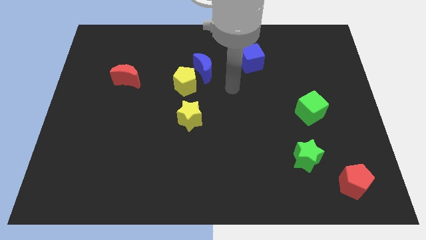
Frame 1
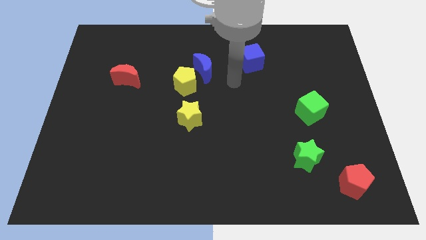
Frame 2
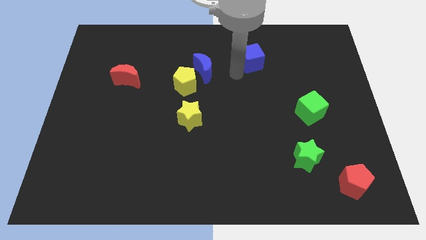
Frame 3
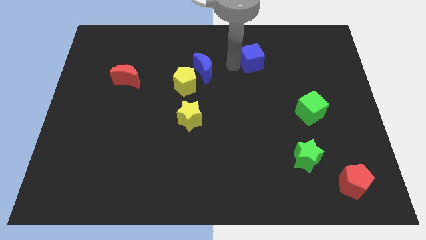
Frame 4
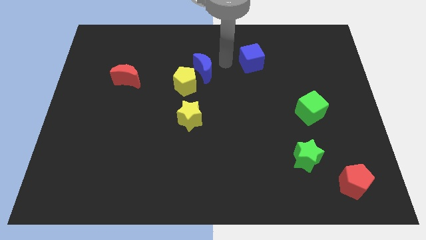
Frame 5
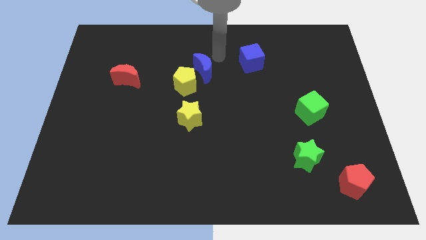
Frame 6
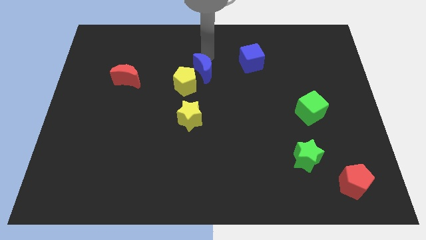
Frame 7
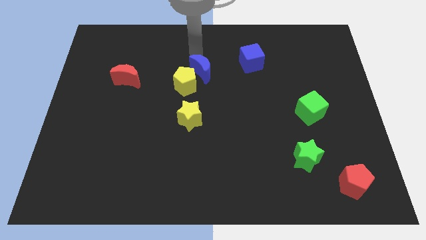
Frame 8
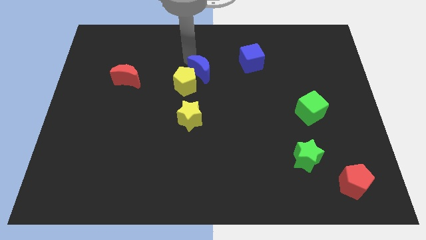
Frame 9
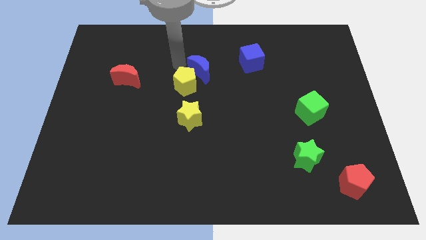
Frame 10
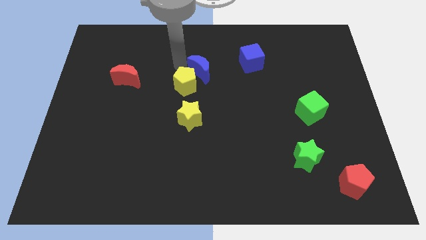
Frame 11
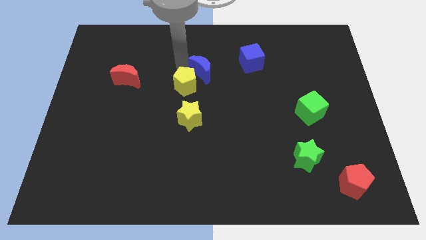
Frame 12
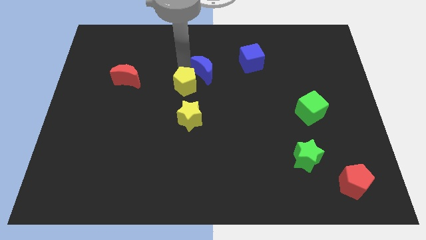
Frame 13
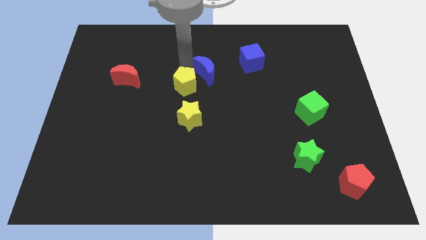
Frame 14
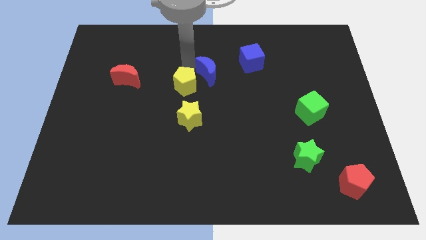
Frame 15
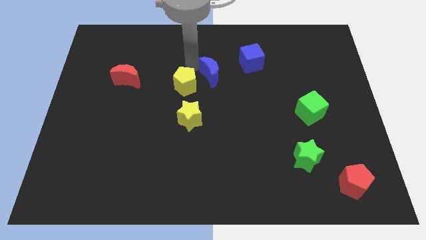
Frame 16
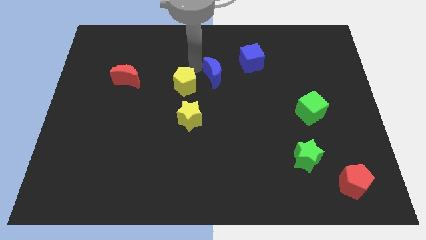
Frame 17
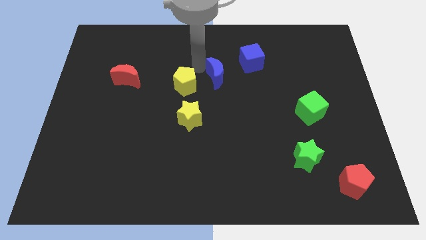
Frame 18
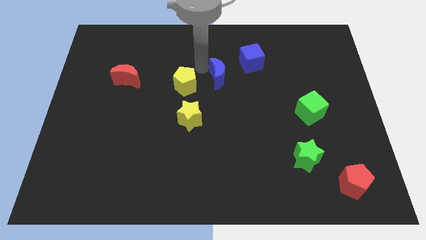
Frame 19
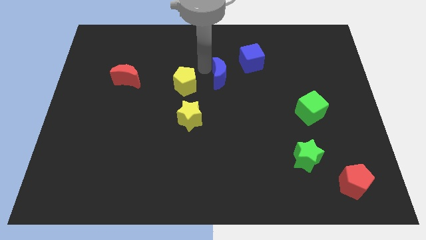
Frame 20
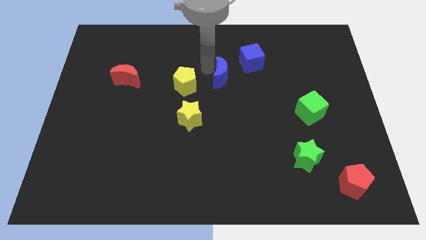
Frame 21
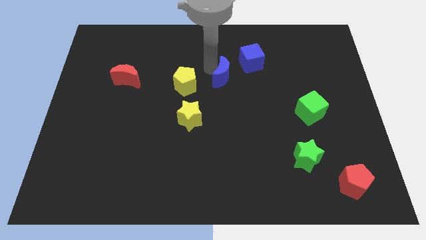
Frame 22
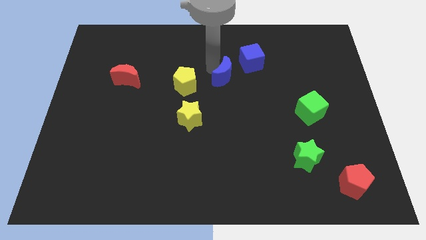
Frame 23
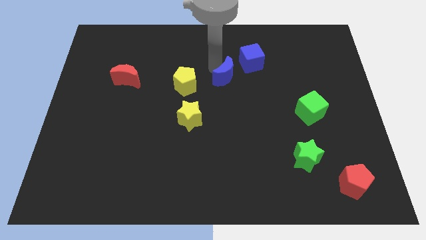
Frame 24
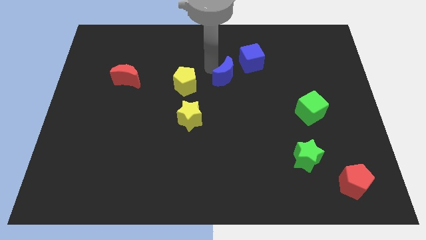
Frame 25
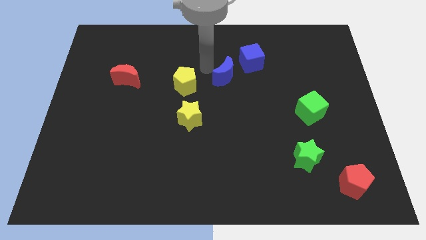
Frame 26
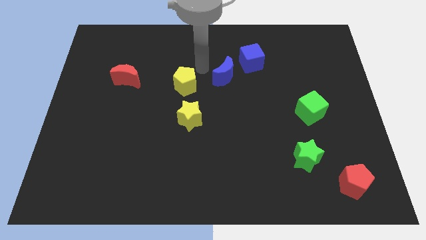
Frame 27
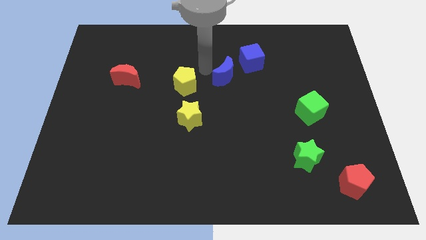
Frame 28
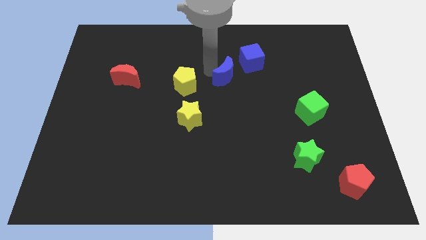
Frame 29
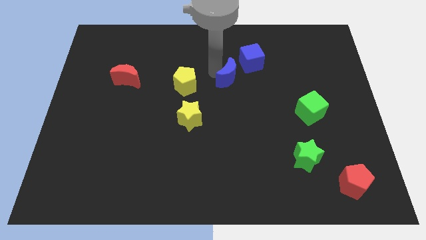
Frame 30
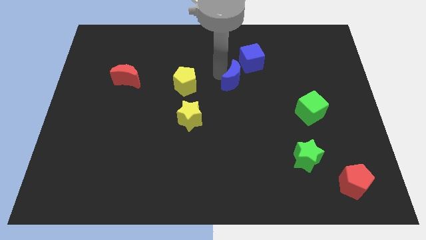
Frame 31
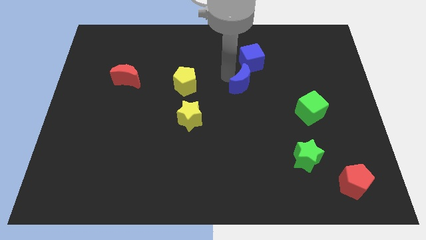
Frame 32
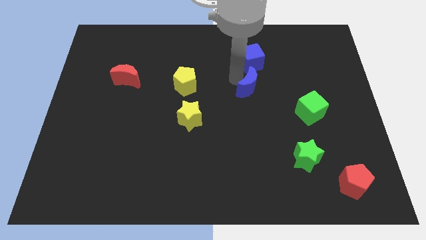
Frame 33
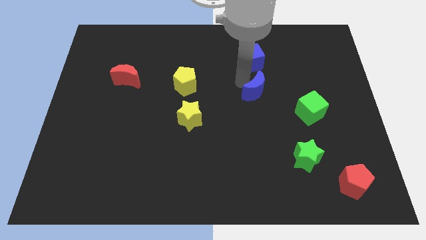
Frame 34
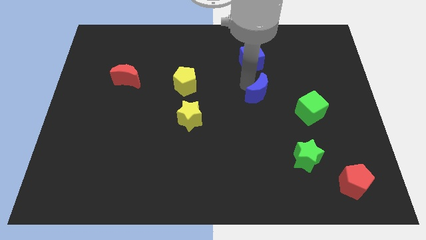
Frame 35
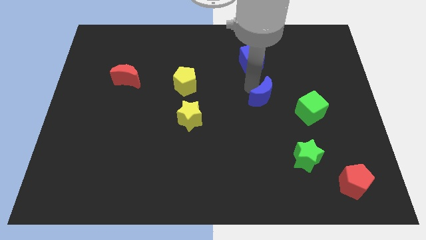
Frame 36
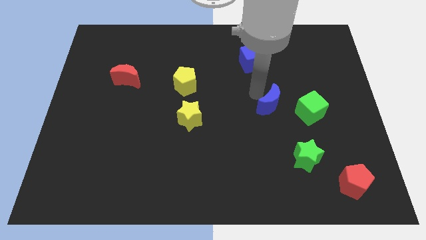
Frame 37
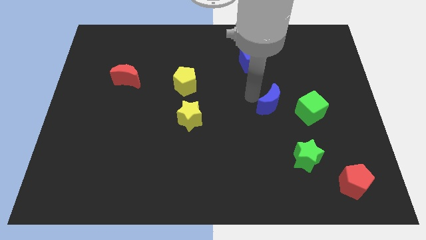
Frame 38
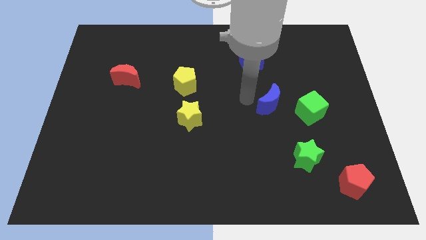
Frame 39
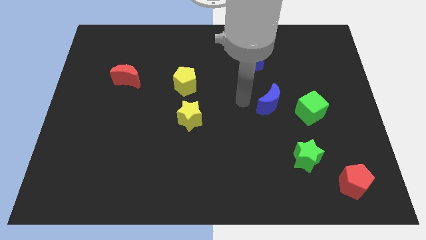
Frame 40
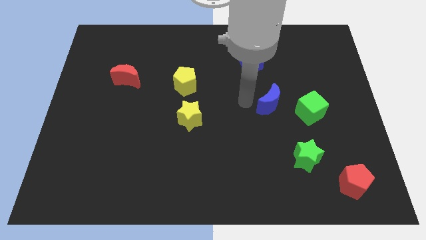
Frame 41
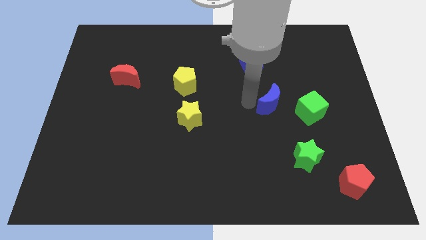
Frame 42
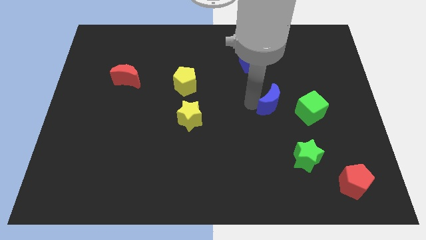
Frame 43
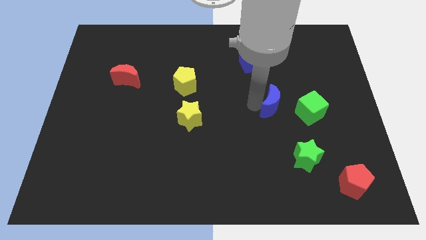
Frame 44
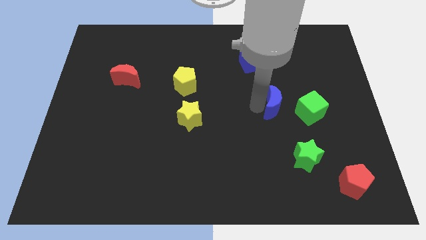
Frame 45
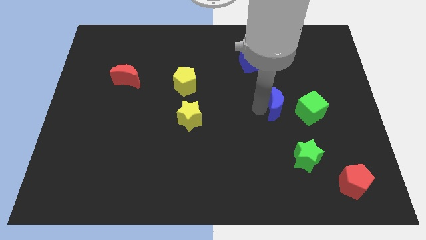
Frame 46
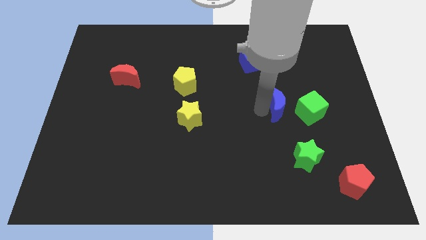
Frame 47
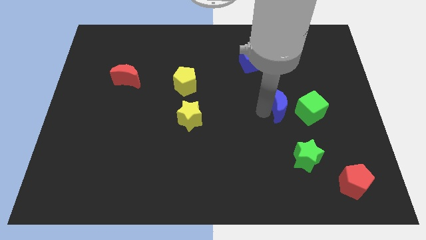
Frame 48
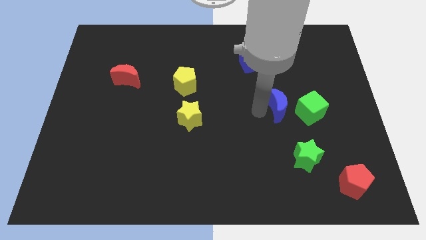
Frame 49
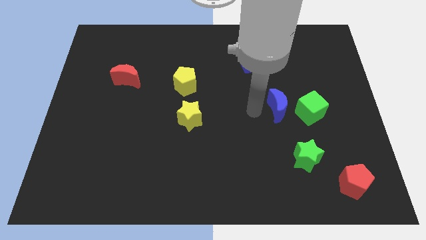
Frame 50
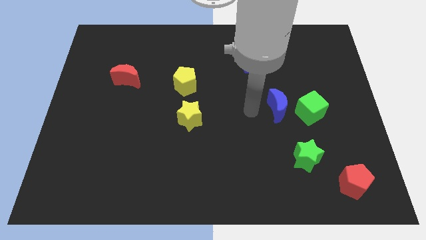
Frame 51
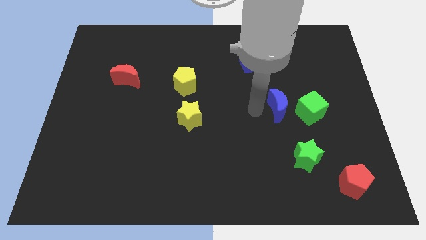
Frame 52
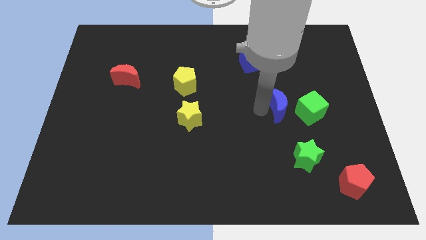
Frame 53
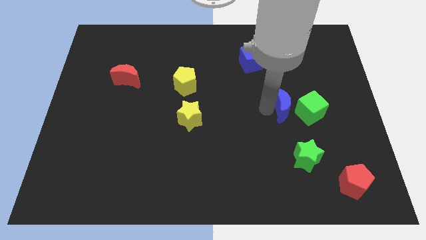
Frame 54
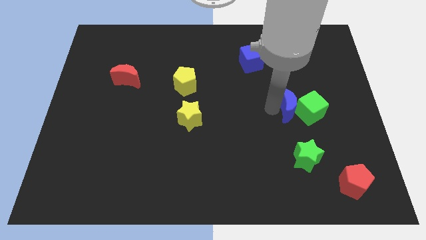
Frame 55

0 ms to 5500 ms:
move the blue moon next to the green cube

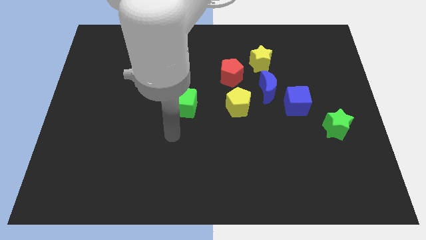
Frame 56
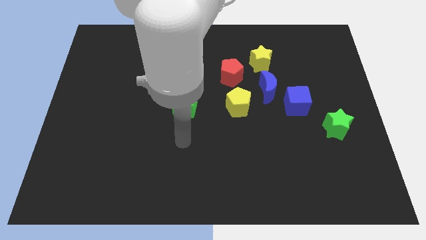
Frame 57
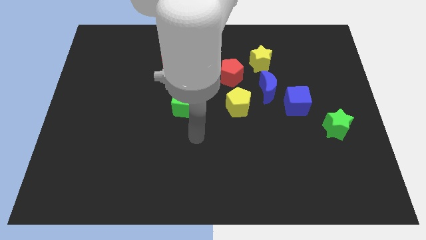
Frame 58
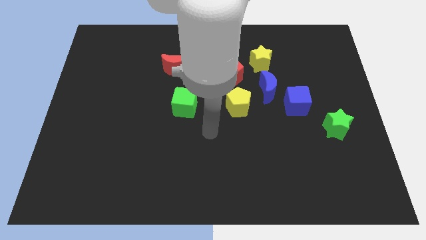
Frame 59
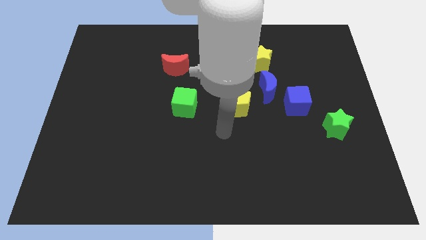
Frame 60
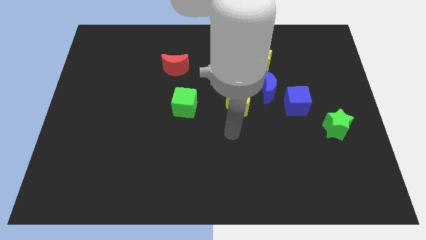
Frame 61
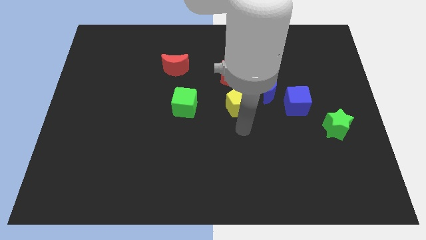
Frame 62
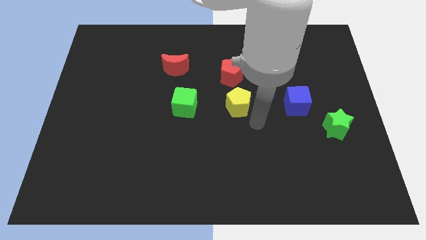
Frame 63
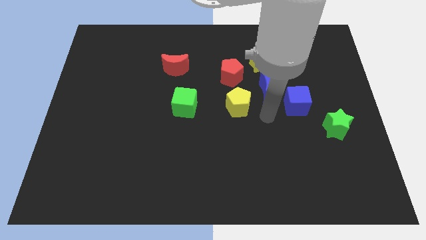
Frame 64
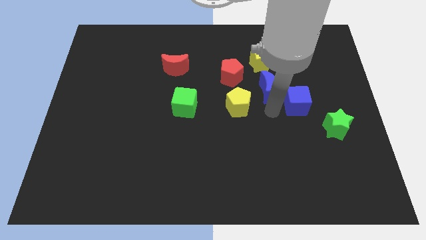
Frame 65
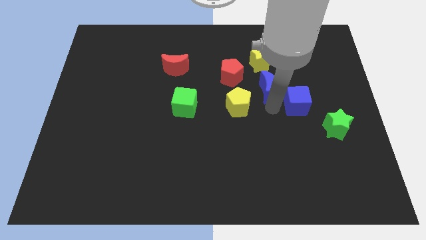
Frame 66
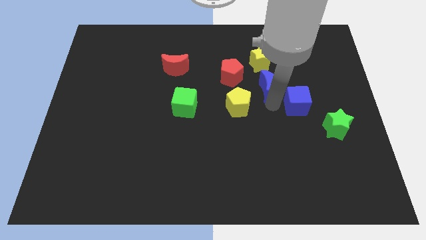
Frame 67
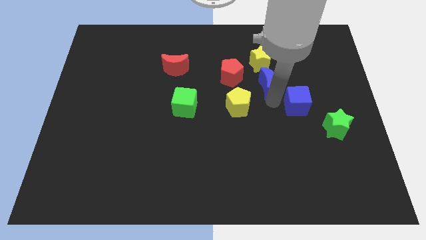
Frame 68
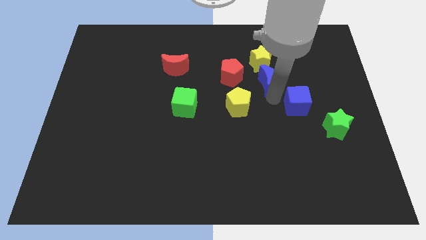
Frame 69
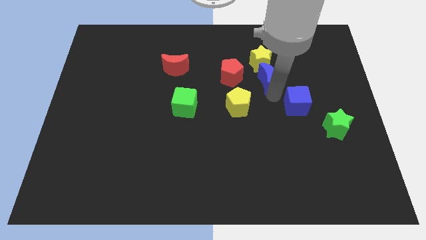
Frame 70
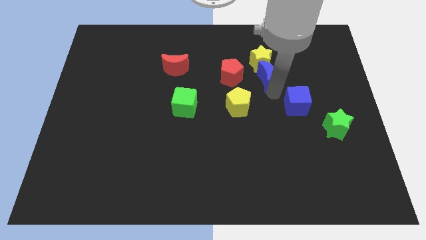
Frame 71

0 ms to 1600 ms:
push the blue moon next to the yellow star
